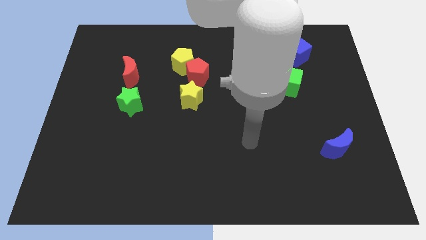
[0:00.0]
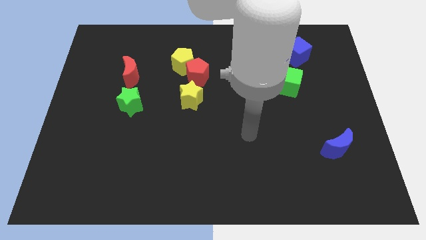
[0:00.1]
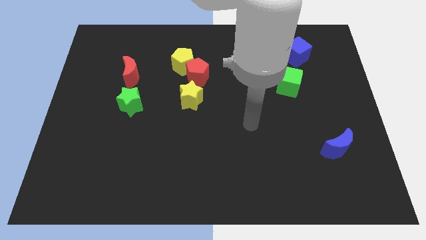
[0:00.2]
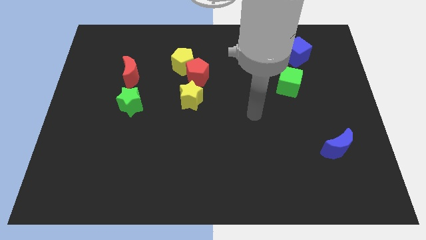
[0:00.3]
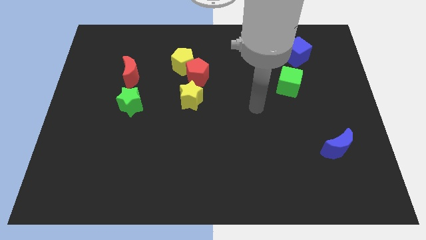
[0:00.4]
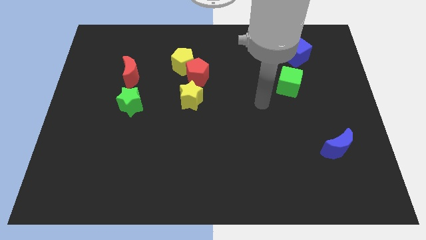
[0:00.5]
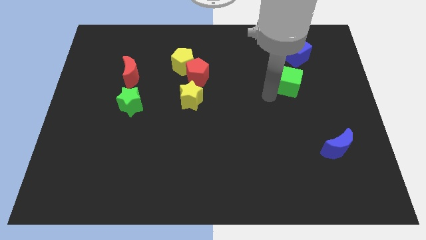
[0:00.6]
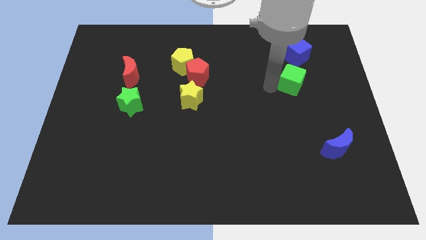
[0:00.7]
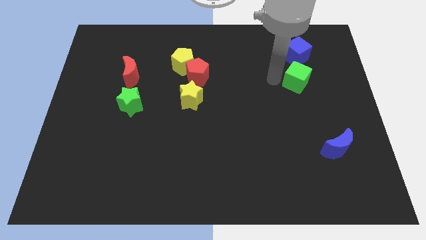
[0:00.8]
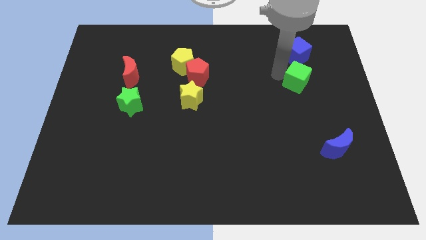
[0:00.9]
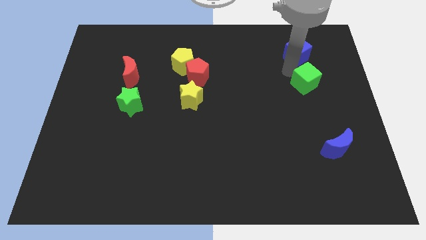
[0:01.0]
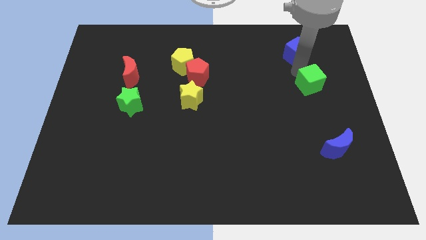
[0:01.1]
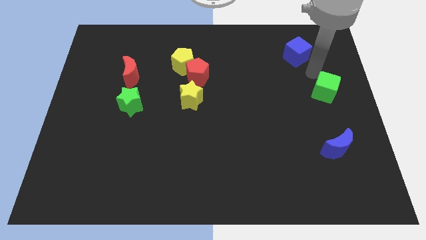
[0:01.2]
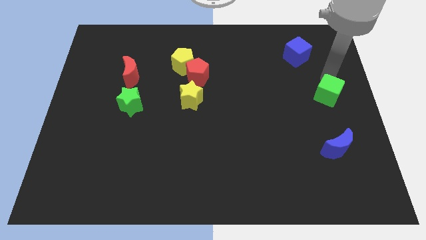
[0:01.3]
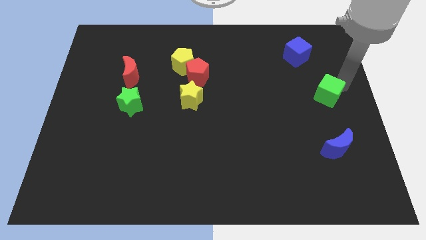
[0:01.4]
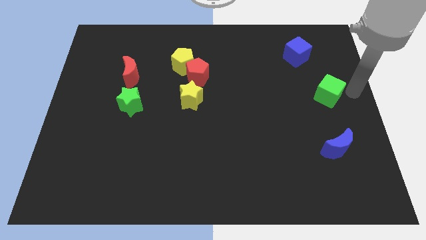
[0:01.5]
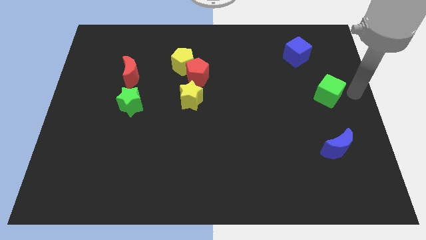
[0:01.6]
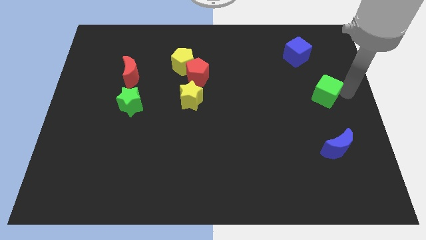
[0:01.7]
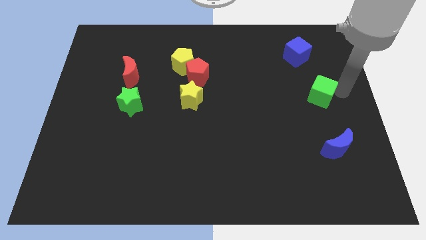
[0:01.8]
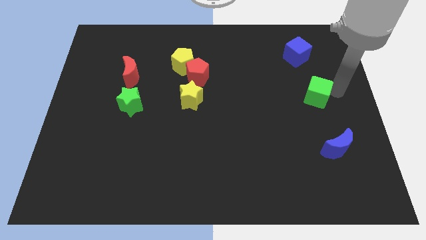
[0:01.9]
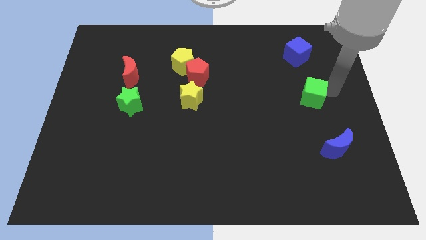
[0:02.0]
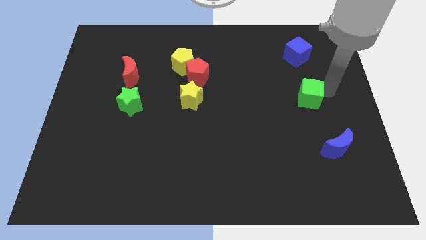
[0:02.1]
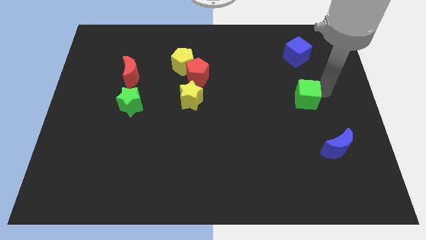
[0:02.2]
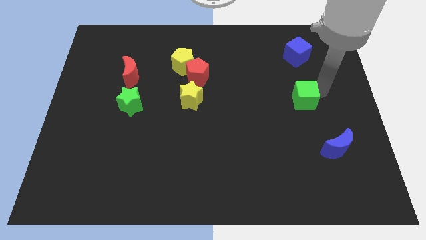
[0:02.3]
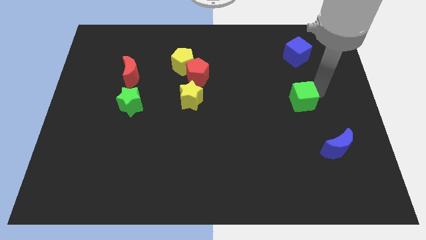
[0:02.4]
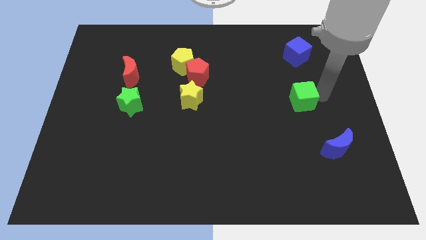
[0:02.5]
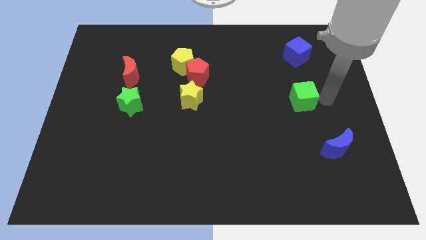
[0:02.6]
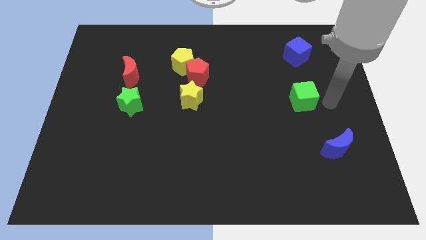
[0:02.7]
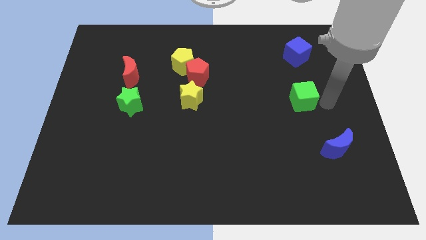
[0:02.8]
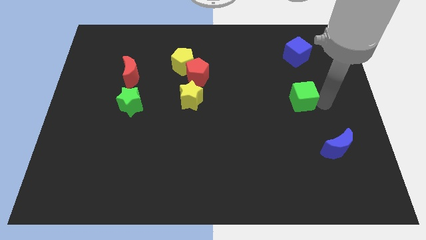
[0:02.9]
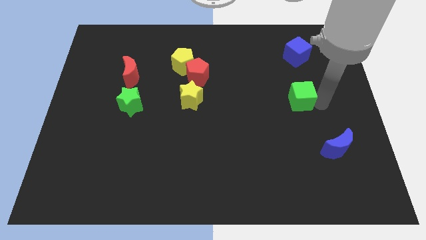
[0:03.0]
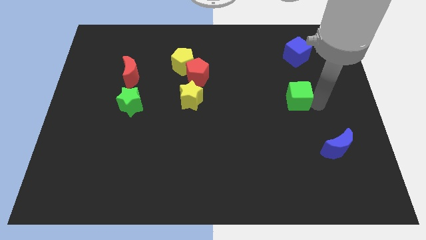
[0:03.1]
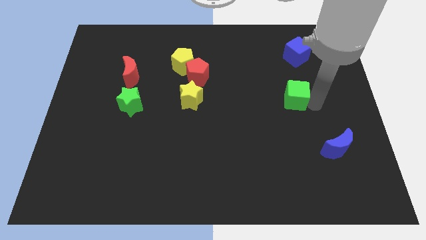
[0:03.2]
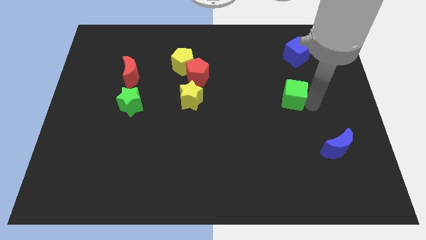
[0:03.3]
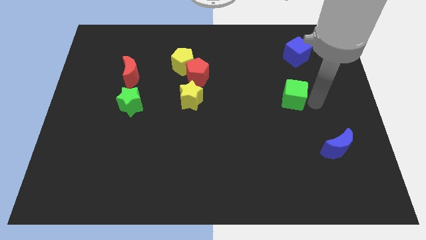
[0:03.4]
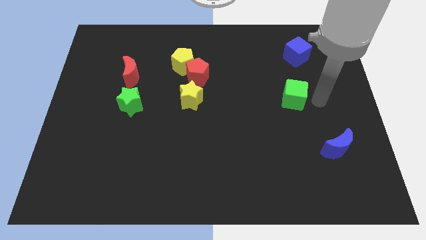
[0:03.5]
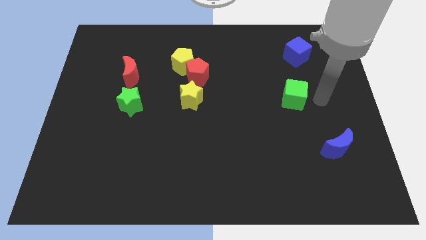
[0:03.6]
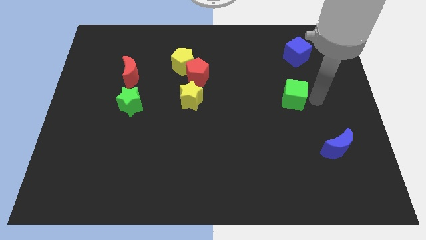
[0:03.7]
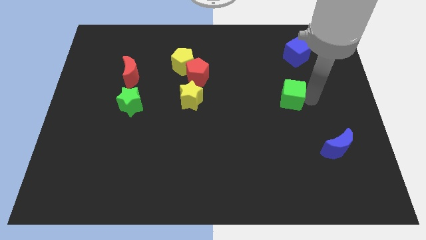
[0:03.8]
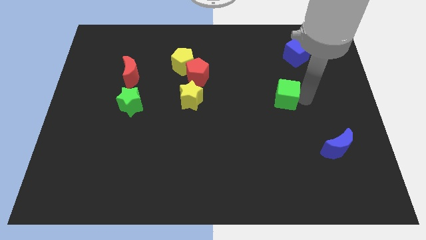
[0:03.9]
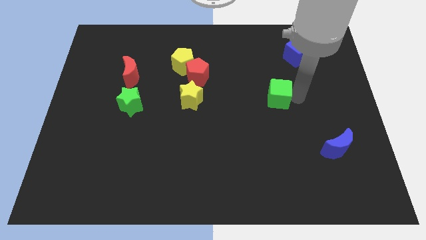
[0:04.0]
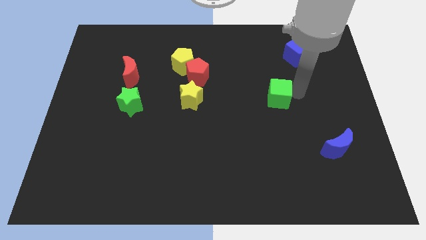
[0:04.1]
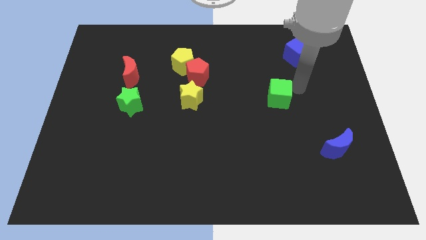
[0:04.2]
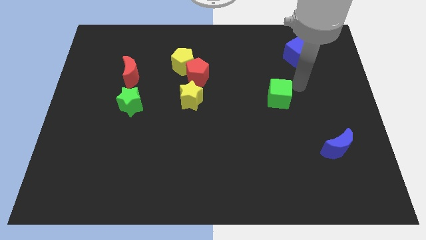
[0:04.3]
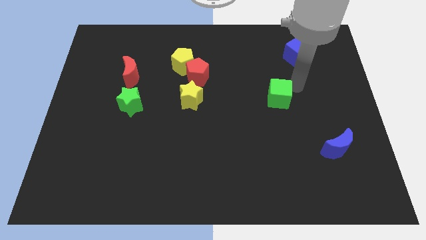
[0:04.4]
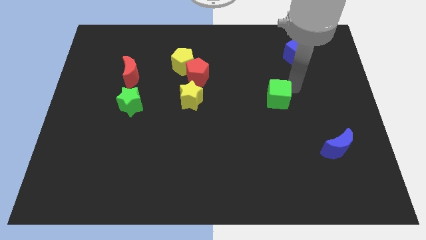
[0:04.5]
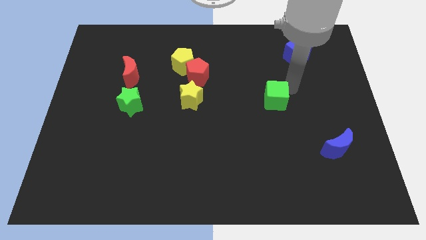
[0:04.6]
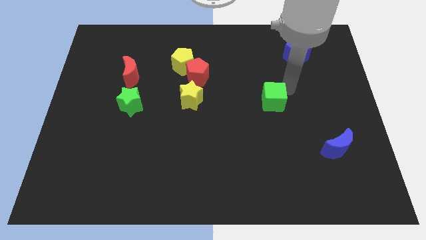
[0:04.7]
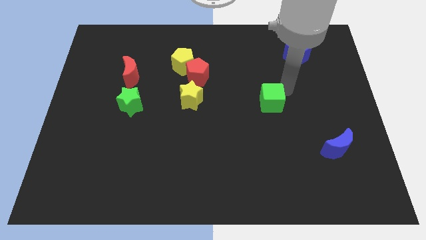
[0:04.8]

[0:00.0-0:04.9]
slide the green cube downwards and to the left diagonally a little bit

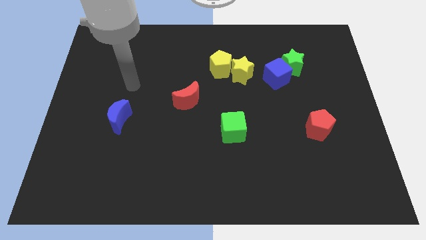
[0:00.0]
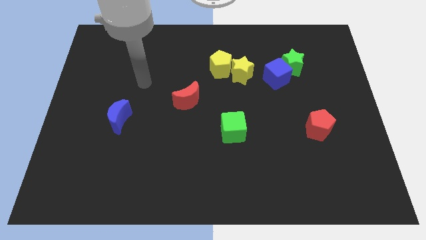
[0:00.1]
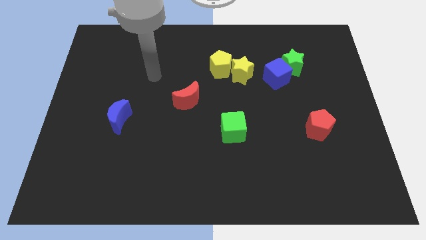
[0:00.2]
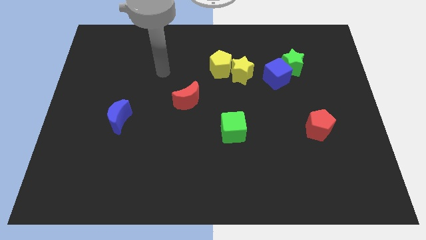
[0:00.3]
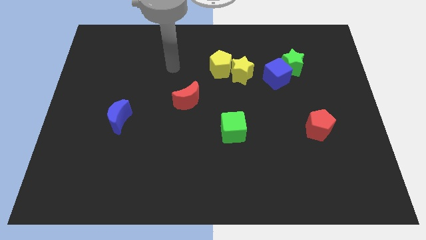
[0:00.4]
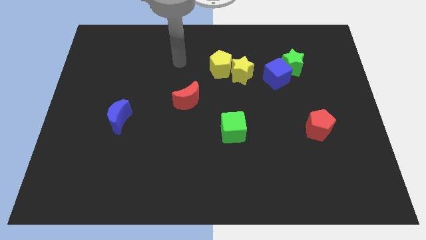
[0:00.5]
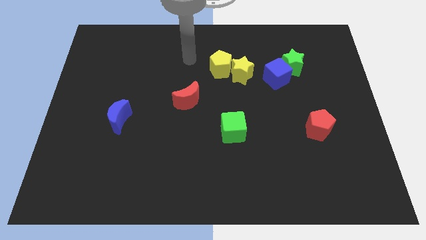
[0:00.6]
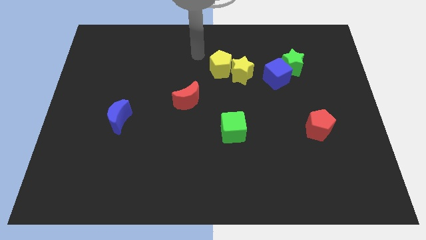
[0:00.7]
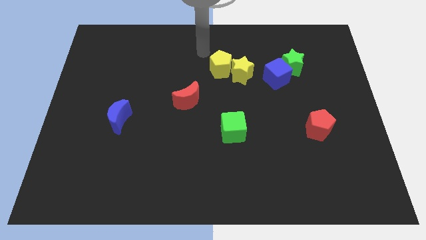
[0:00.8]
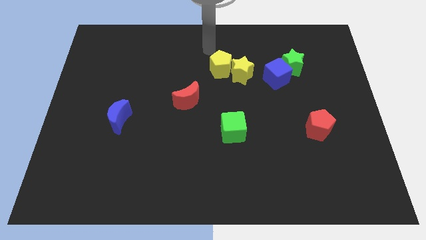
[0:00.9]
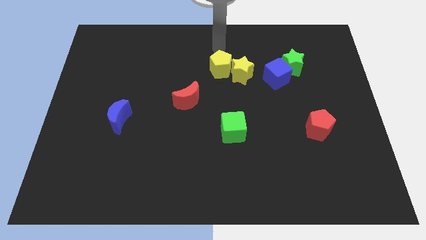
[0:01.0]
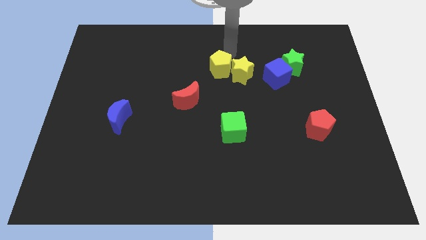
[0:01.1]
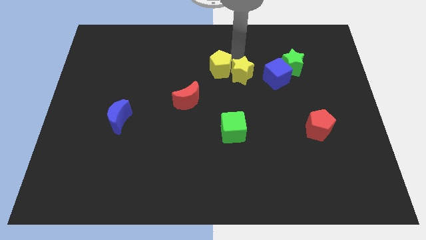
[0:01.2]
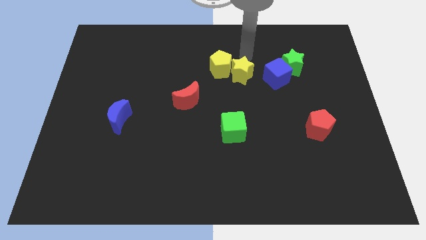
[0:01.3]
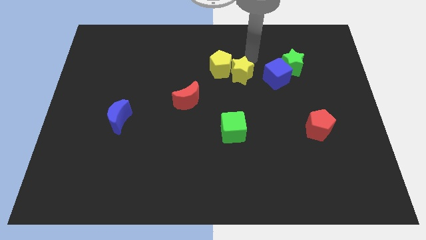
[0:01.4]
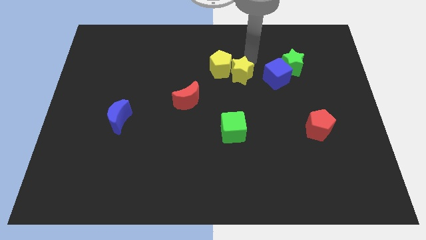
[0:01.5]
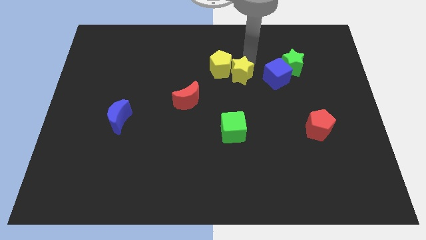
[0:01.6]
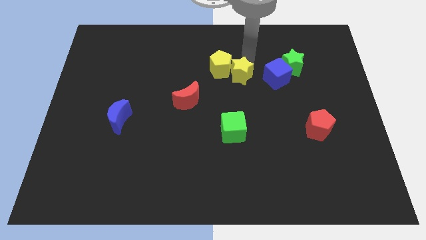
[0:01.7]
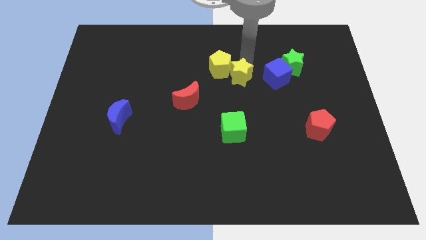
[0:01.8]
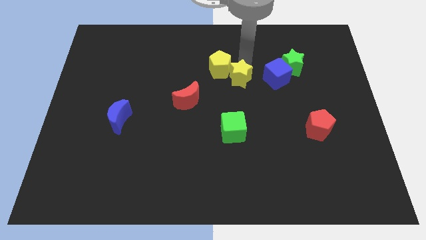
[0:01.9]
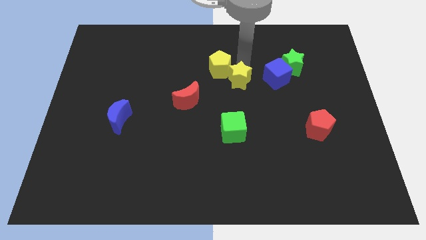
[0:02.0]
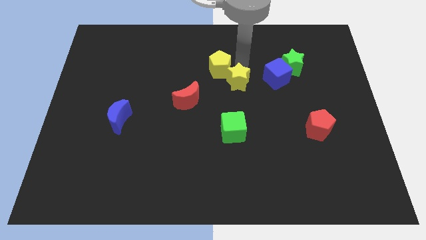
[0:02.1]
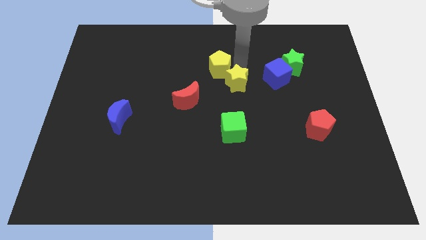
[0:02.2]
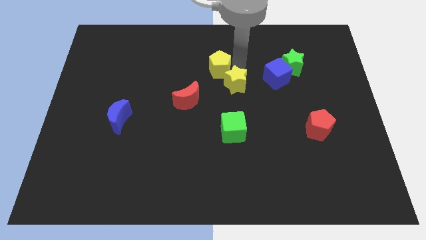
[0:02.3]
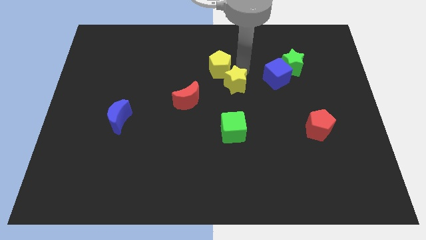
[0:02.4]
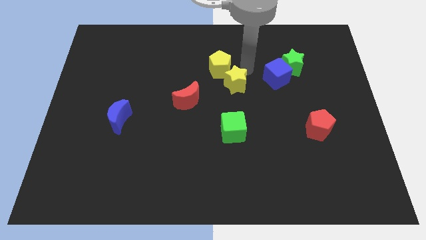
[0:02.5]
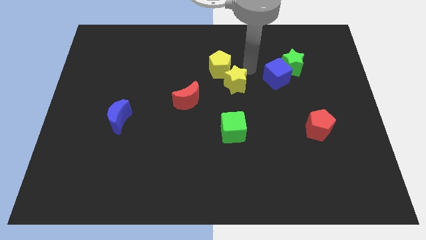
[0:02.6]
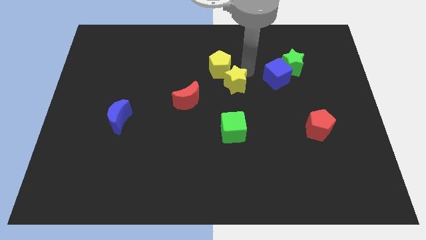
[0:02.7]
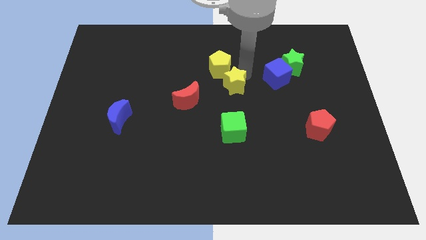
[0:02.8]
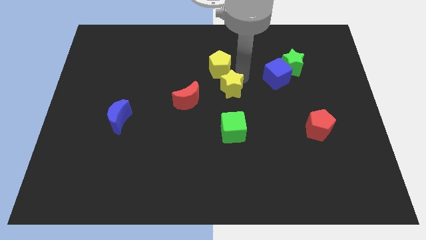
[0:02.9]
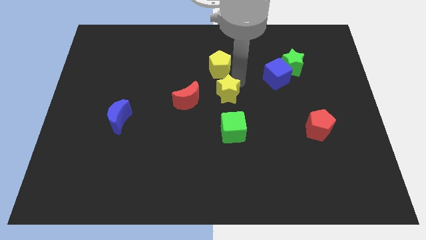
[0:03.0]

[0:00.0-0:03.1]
slightly slide the yellow star downwards and to the left

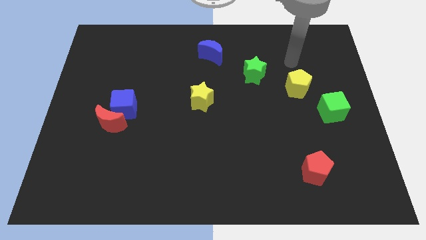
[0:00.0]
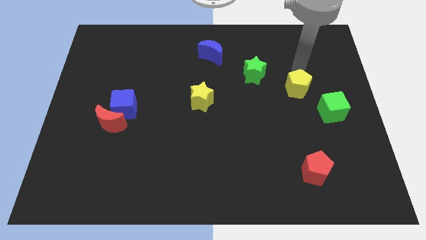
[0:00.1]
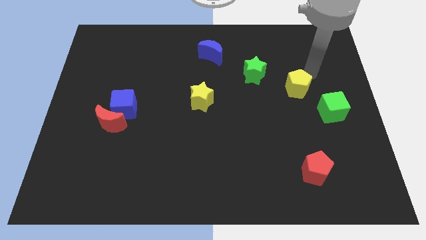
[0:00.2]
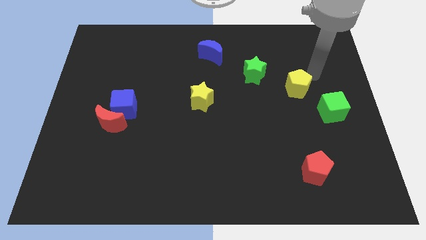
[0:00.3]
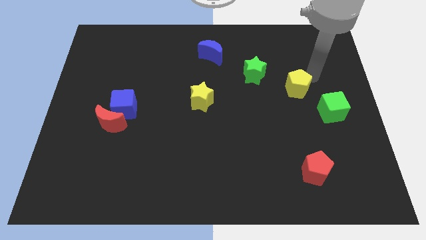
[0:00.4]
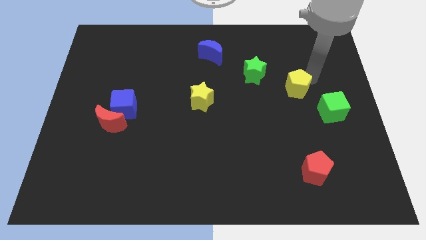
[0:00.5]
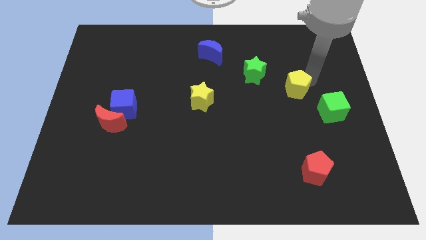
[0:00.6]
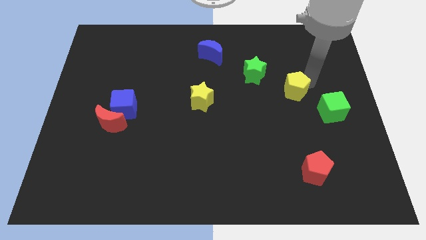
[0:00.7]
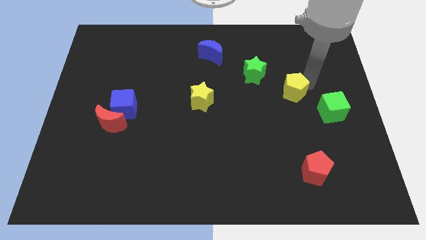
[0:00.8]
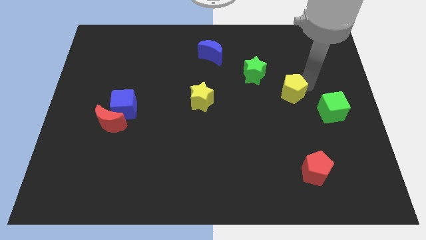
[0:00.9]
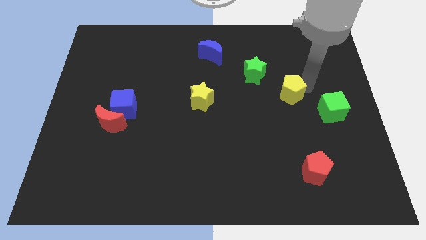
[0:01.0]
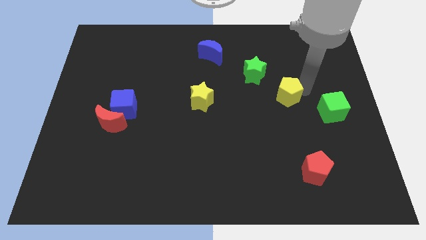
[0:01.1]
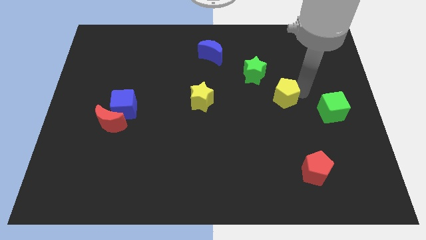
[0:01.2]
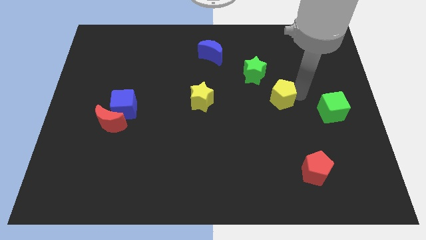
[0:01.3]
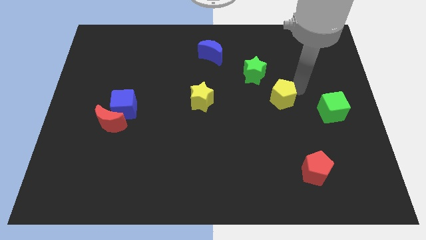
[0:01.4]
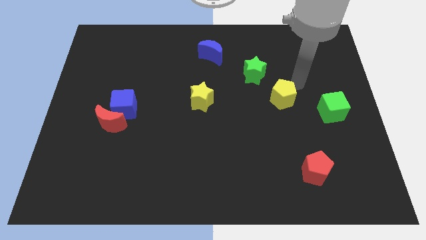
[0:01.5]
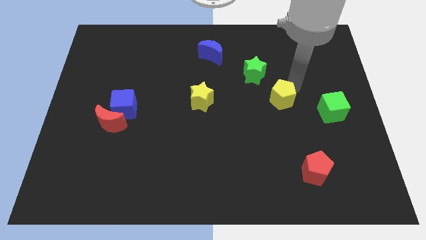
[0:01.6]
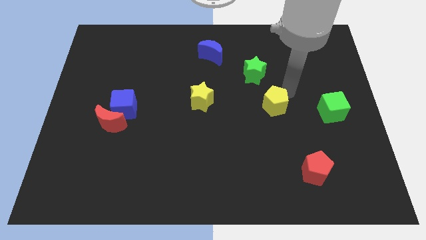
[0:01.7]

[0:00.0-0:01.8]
slide the yellow pentagon somewhat downwards and left diagonally
